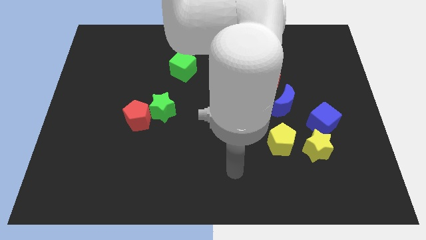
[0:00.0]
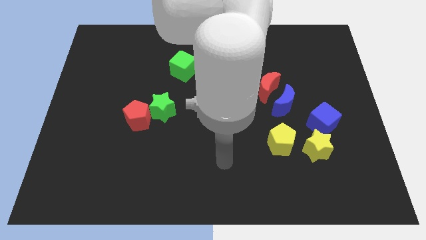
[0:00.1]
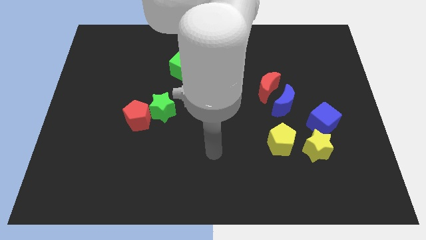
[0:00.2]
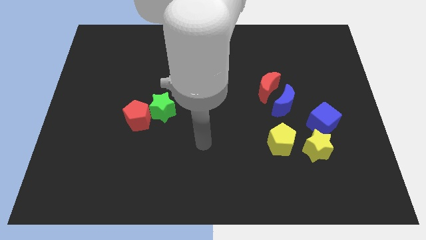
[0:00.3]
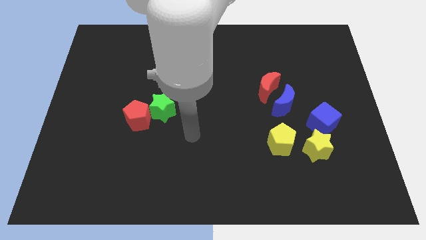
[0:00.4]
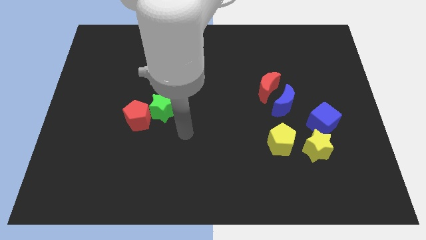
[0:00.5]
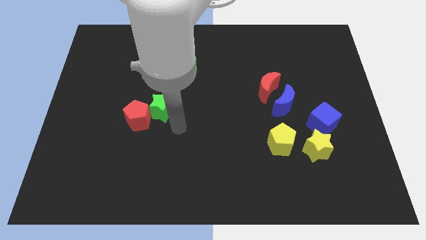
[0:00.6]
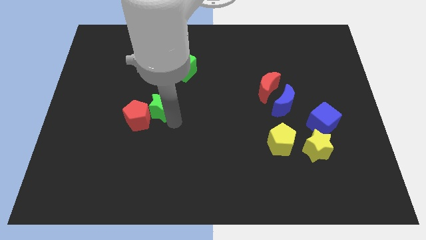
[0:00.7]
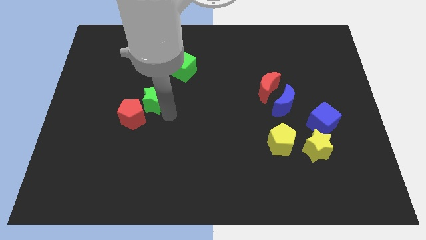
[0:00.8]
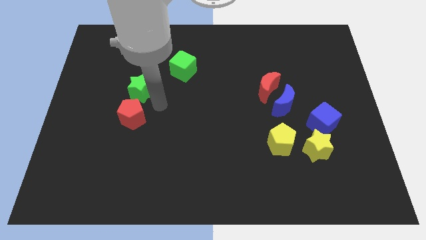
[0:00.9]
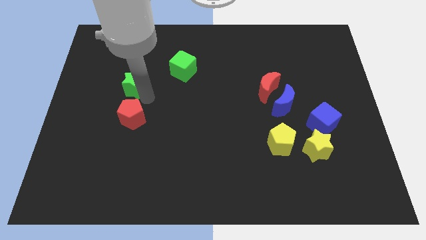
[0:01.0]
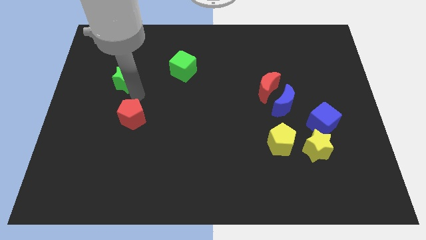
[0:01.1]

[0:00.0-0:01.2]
separate the red pentagon from the green star

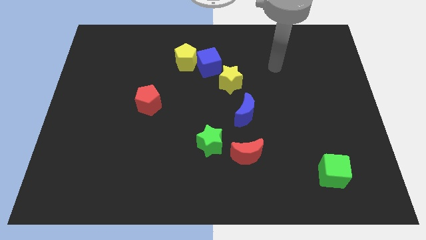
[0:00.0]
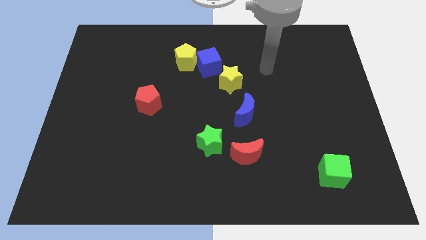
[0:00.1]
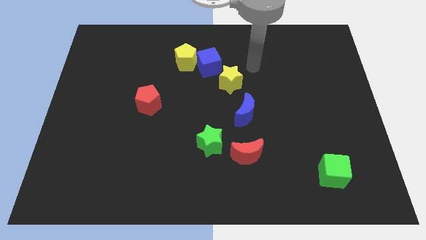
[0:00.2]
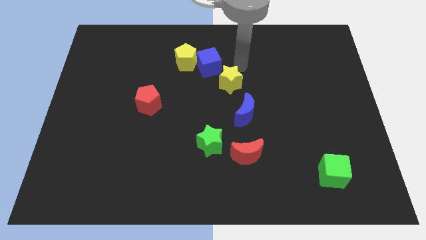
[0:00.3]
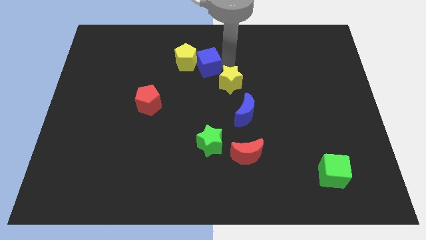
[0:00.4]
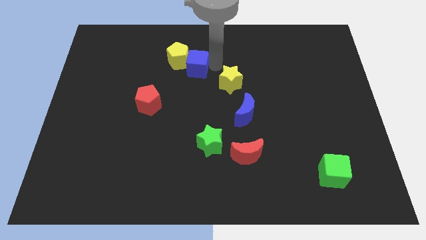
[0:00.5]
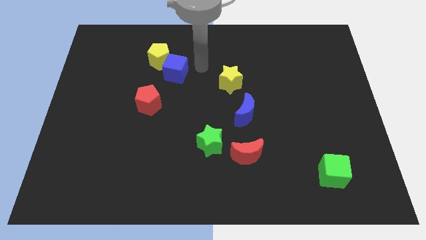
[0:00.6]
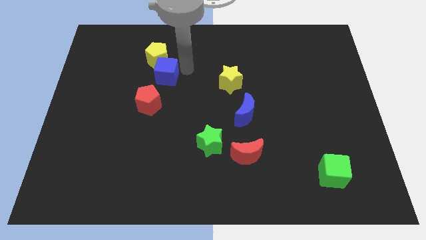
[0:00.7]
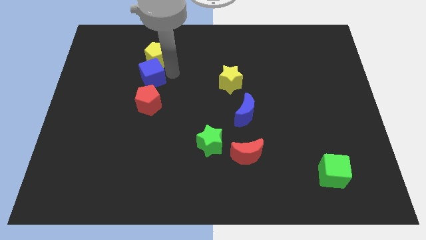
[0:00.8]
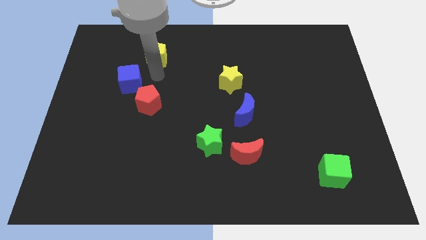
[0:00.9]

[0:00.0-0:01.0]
move the yellow pentagon away from the blue cube

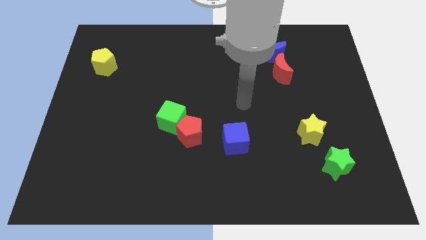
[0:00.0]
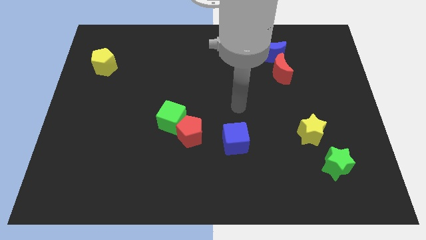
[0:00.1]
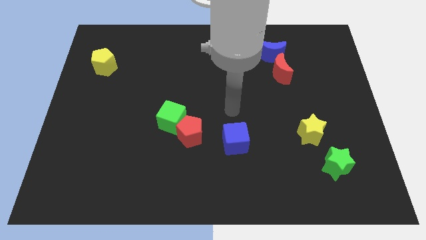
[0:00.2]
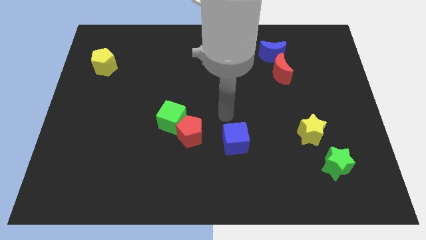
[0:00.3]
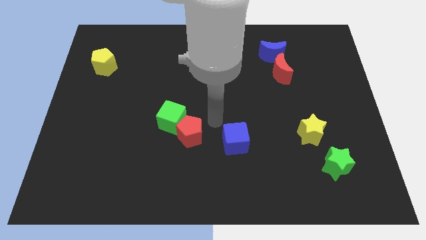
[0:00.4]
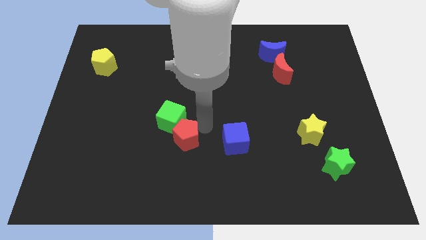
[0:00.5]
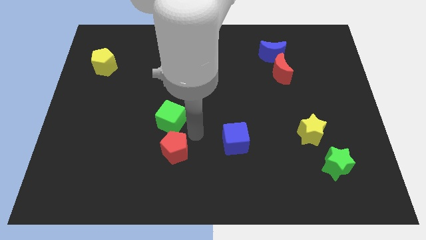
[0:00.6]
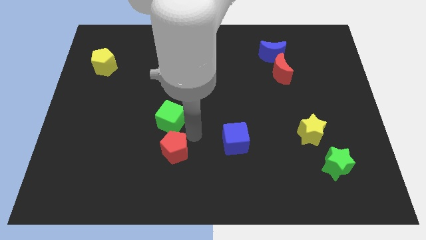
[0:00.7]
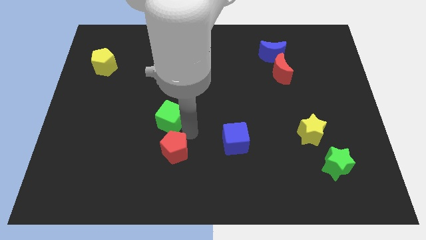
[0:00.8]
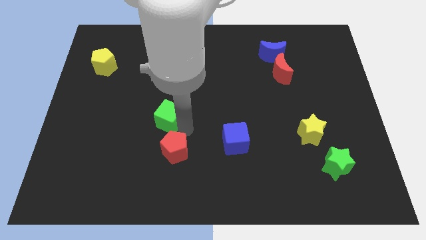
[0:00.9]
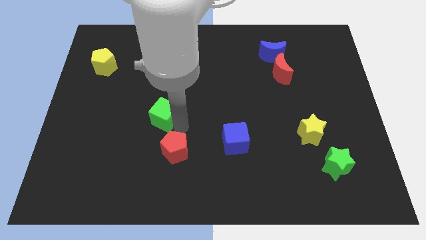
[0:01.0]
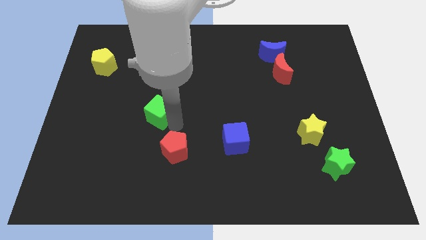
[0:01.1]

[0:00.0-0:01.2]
separate the green cube from the red pentagon

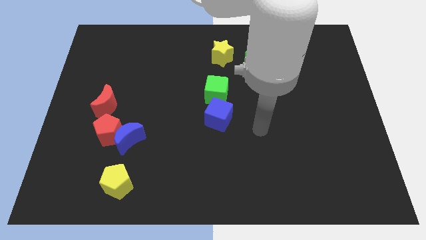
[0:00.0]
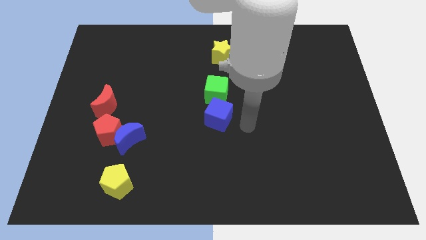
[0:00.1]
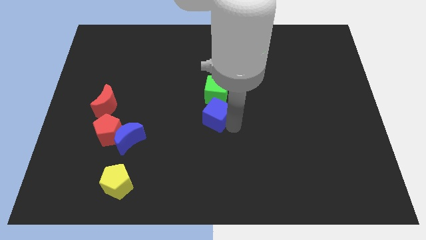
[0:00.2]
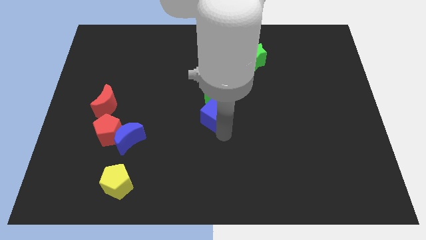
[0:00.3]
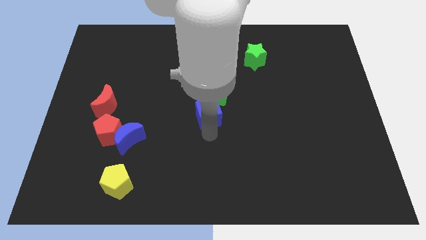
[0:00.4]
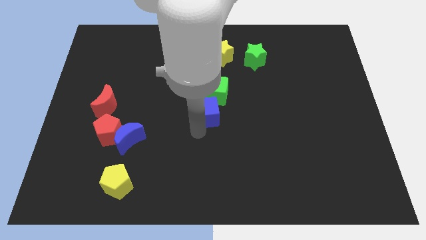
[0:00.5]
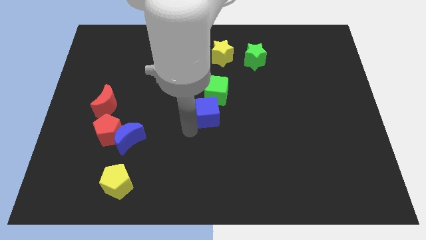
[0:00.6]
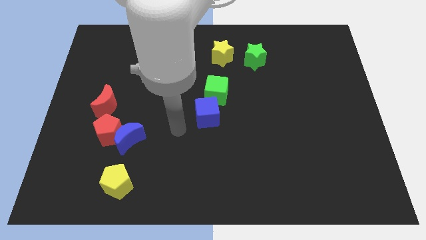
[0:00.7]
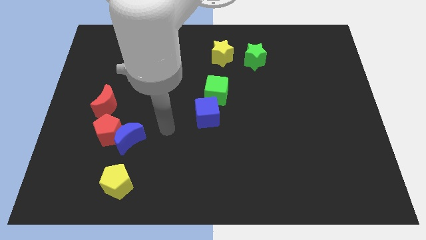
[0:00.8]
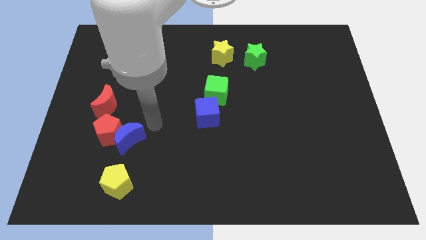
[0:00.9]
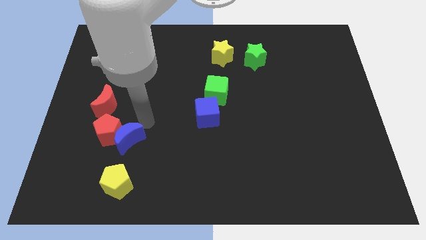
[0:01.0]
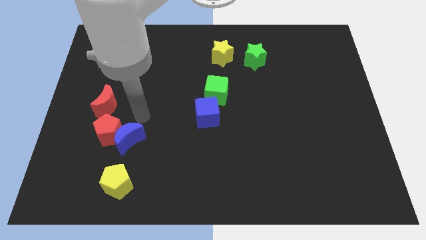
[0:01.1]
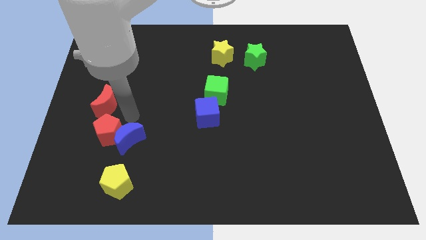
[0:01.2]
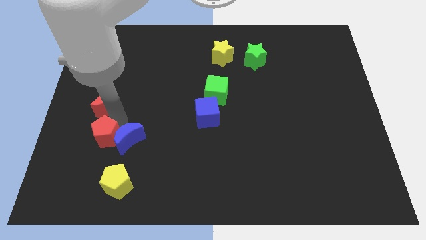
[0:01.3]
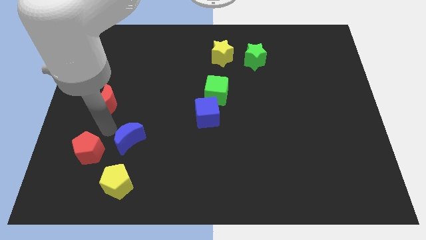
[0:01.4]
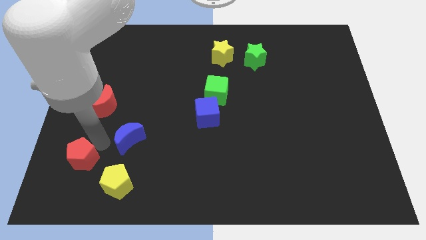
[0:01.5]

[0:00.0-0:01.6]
pull the blue moon apart from the red pentagon

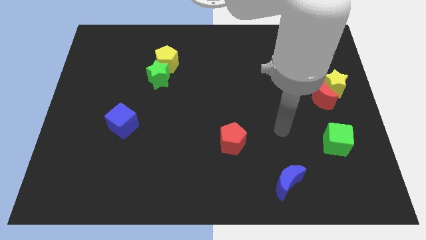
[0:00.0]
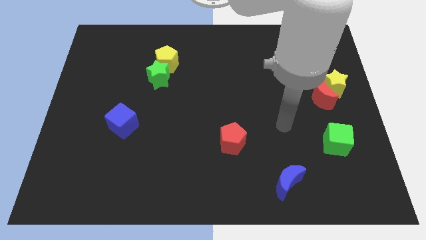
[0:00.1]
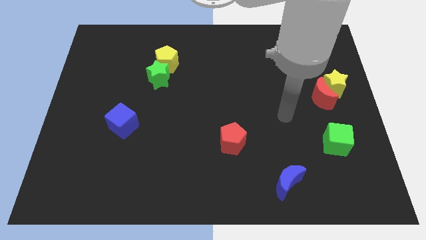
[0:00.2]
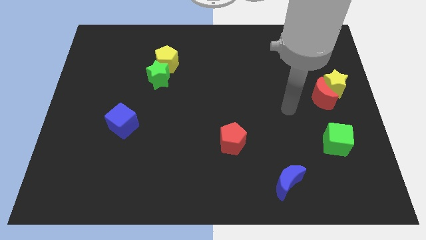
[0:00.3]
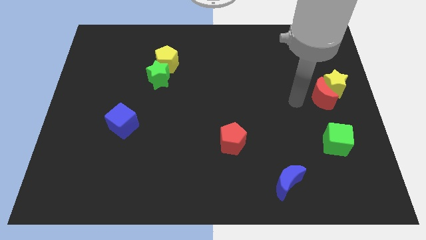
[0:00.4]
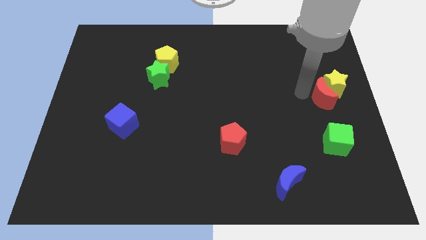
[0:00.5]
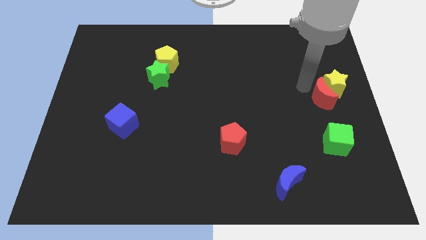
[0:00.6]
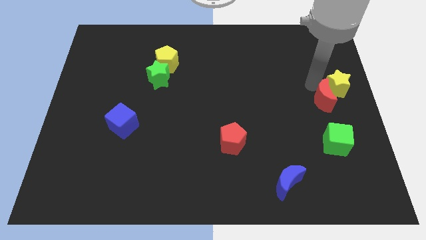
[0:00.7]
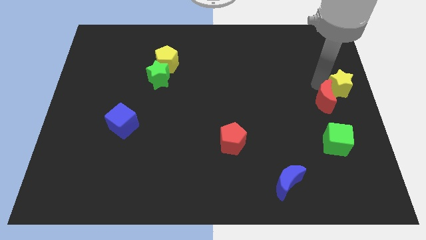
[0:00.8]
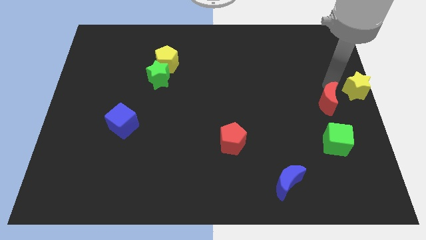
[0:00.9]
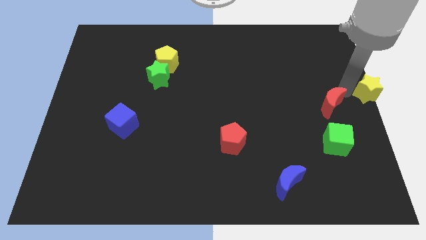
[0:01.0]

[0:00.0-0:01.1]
move the red moon away from the yellow star

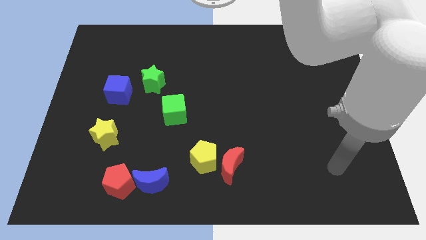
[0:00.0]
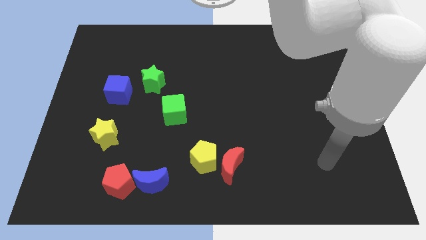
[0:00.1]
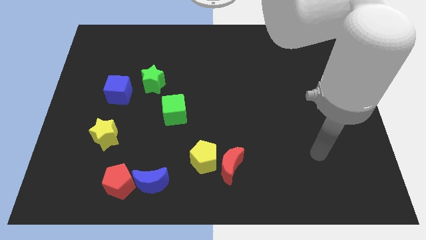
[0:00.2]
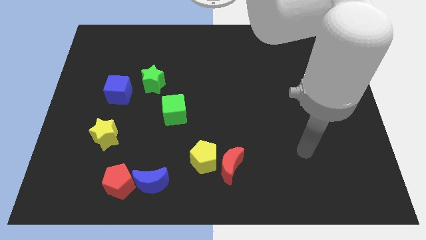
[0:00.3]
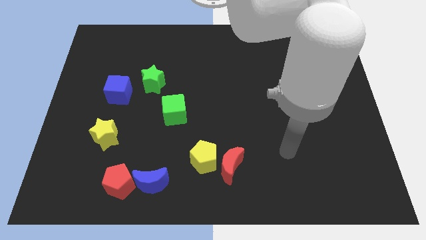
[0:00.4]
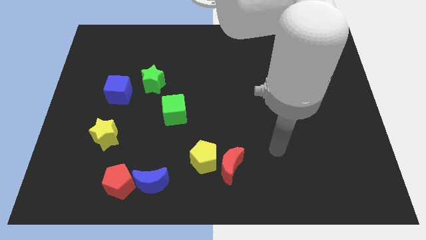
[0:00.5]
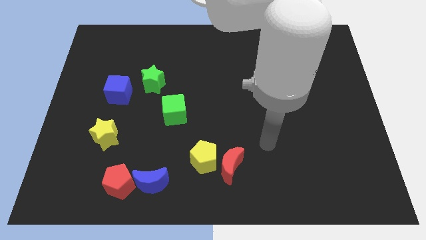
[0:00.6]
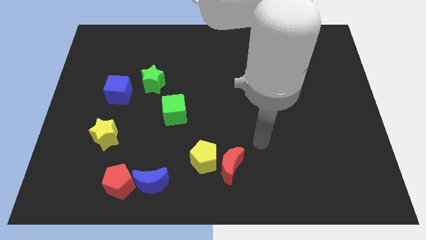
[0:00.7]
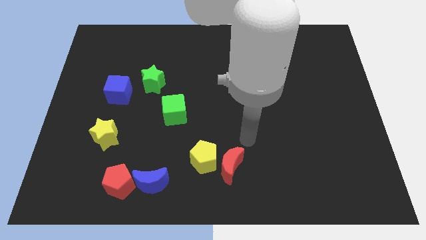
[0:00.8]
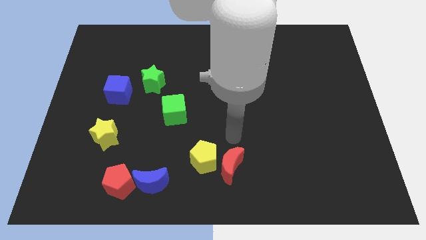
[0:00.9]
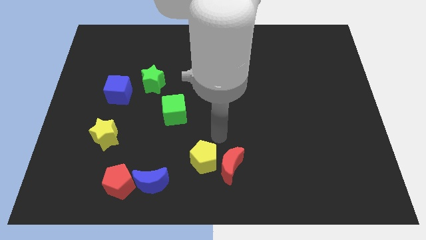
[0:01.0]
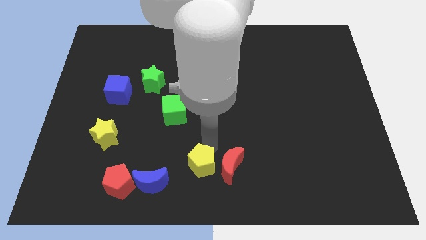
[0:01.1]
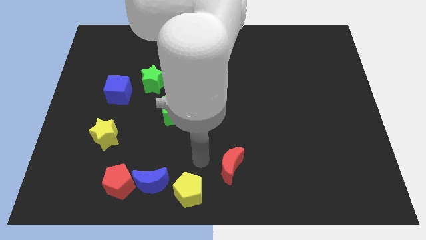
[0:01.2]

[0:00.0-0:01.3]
separate the red moon from the yellow pentagon

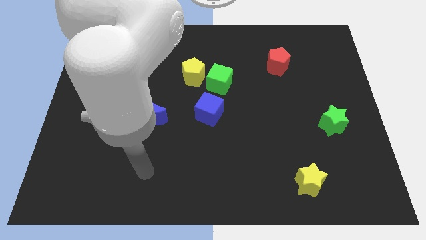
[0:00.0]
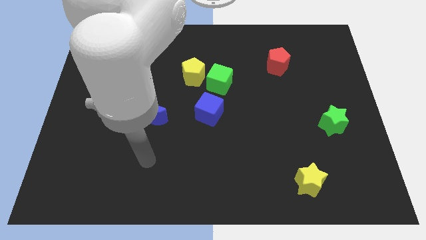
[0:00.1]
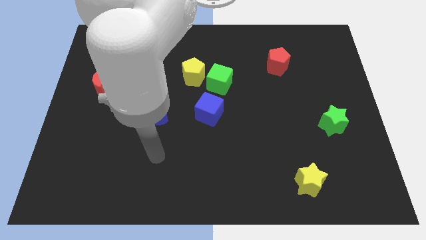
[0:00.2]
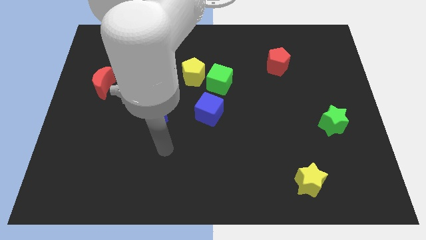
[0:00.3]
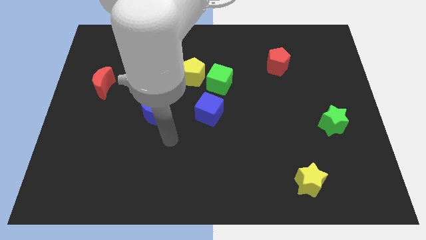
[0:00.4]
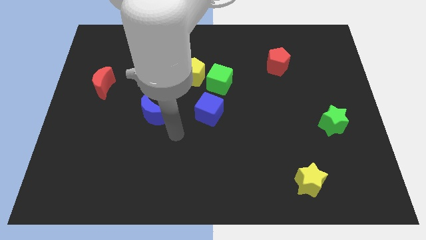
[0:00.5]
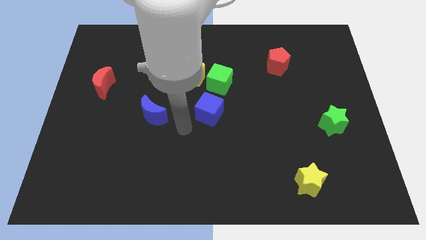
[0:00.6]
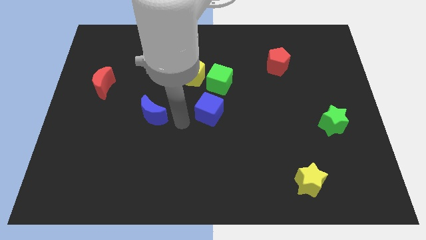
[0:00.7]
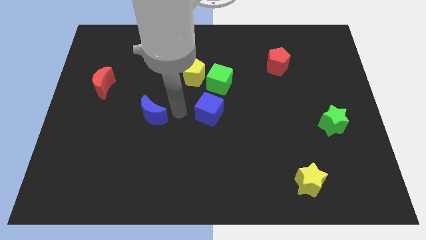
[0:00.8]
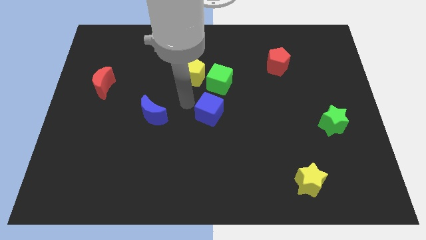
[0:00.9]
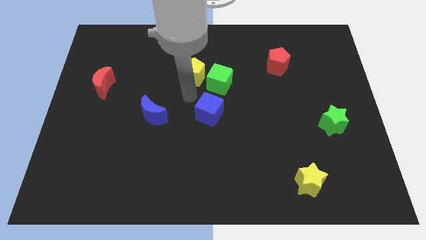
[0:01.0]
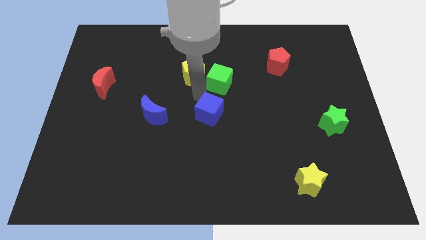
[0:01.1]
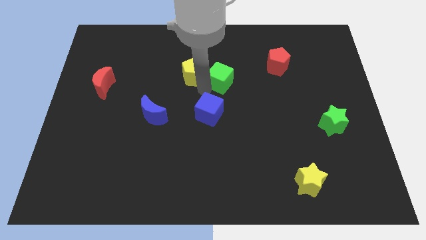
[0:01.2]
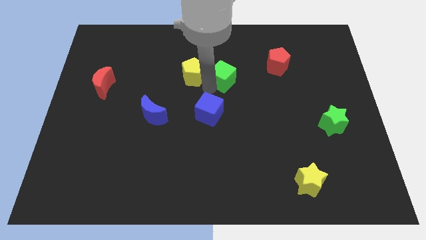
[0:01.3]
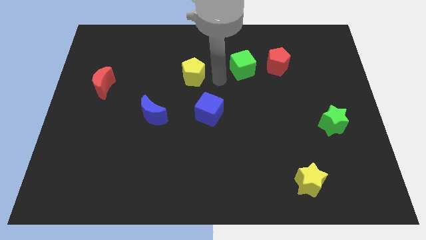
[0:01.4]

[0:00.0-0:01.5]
pull the yellow pentagon apart from the green cube

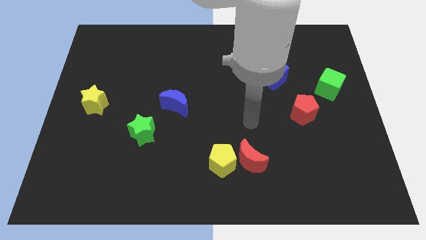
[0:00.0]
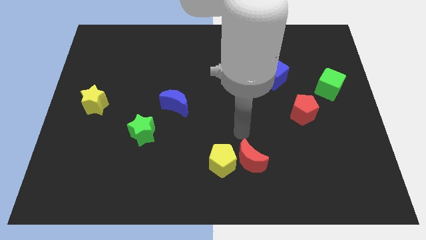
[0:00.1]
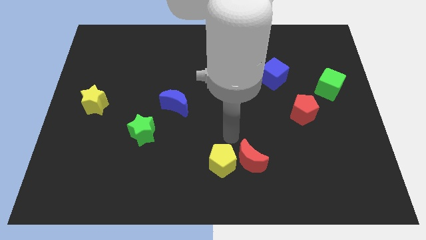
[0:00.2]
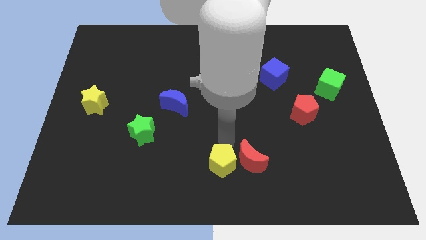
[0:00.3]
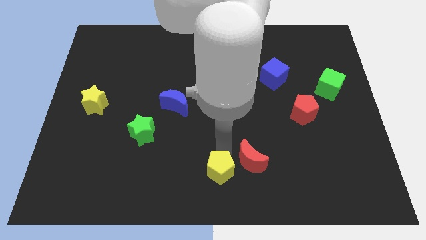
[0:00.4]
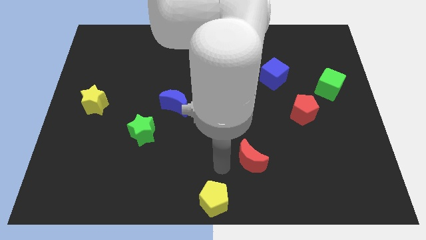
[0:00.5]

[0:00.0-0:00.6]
pull the red moon apart from the yellow pentagon
